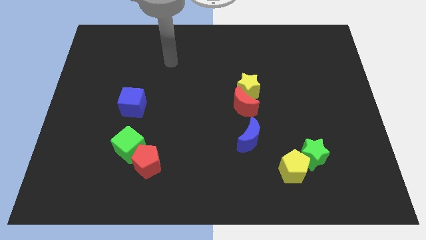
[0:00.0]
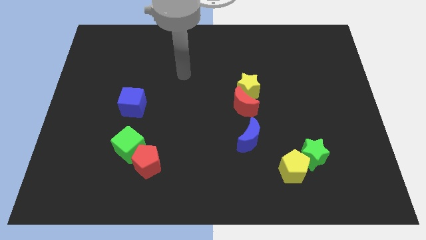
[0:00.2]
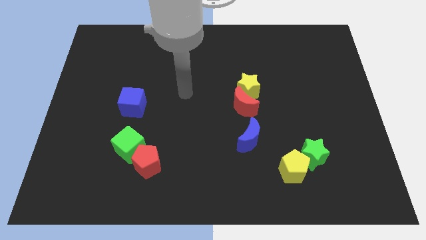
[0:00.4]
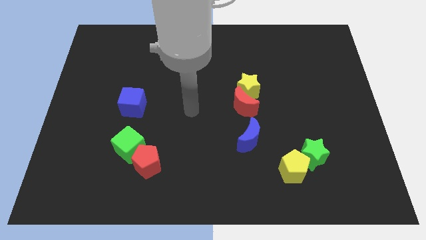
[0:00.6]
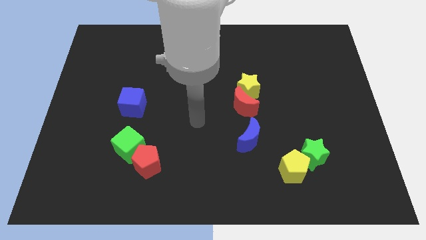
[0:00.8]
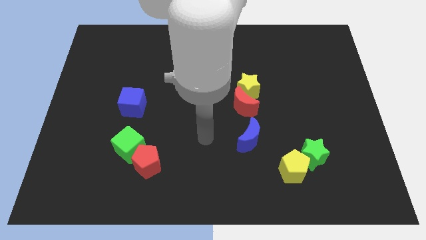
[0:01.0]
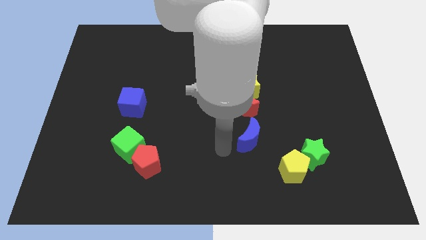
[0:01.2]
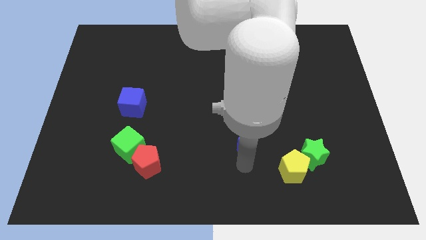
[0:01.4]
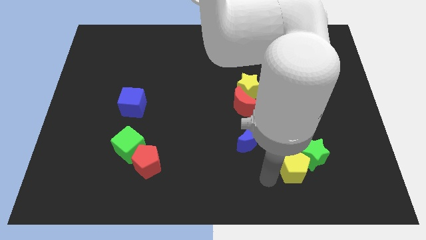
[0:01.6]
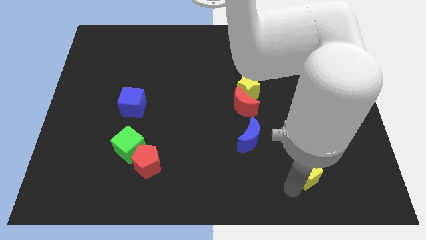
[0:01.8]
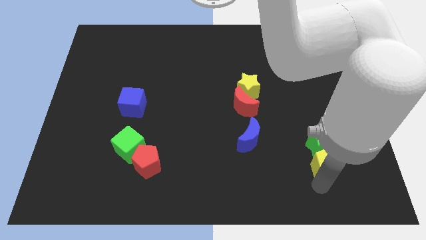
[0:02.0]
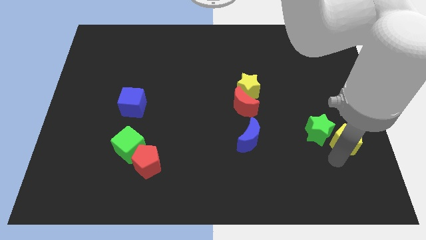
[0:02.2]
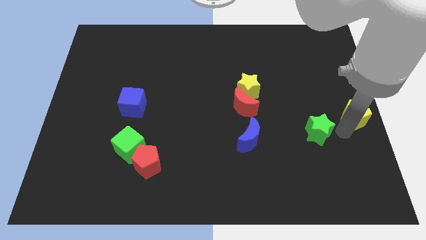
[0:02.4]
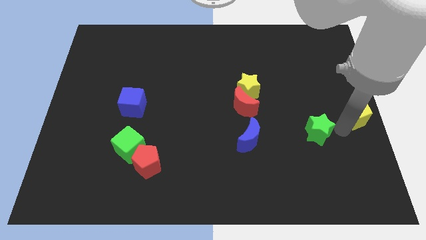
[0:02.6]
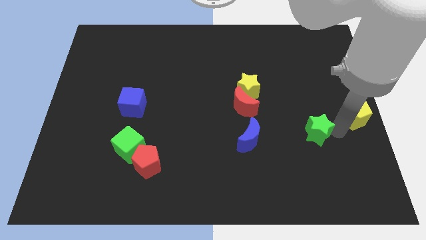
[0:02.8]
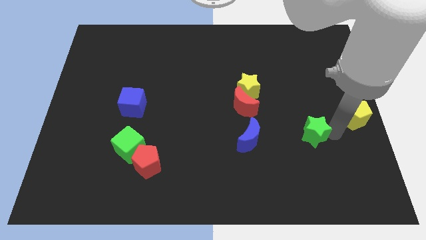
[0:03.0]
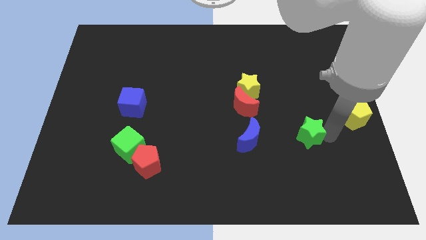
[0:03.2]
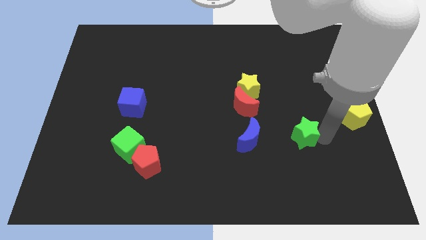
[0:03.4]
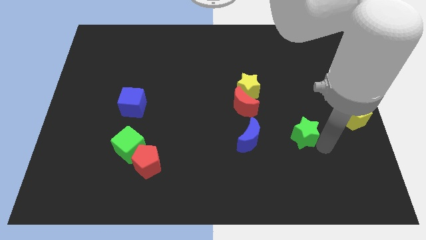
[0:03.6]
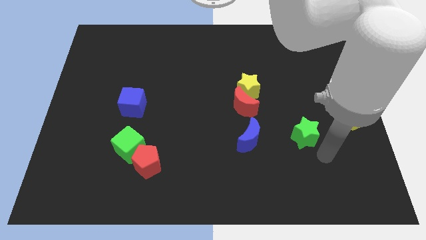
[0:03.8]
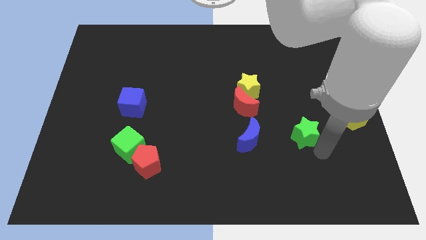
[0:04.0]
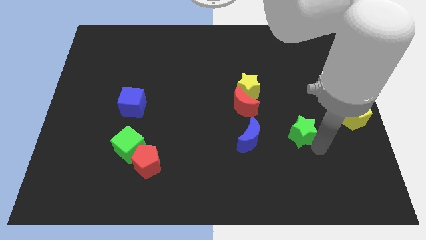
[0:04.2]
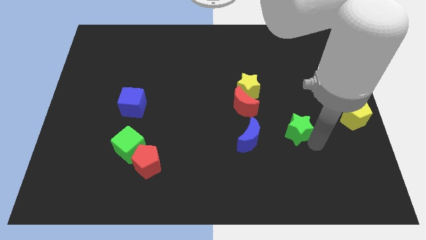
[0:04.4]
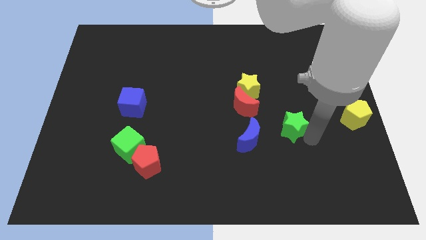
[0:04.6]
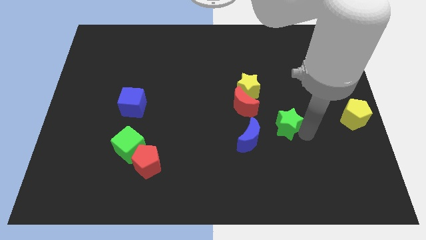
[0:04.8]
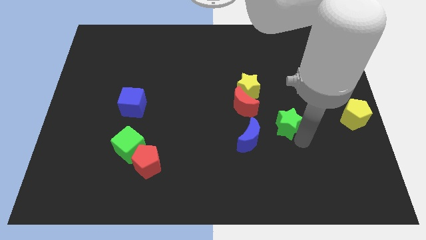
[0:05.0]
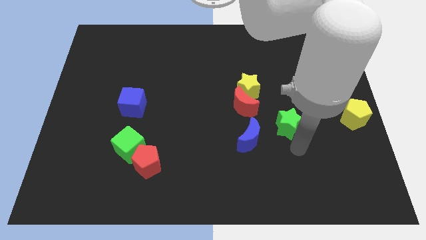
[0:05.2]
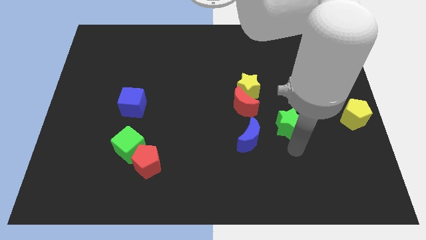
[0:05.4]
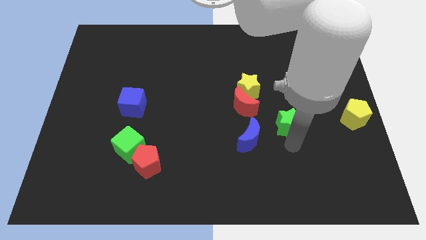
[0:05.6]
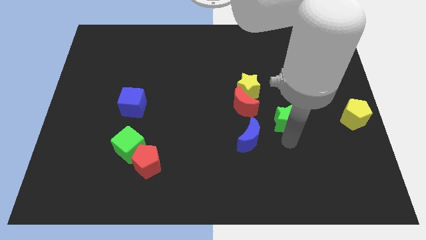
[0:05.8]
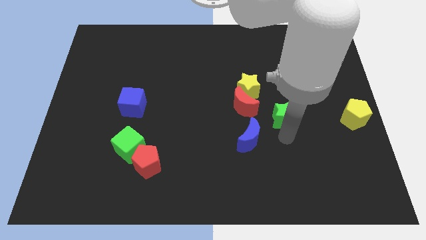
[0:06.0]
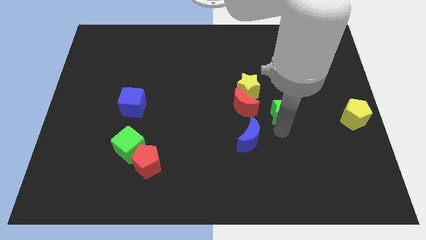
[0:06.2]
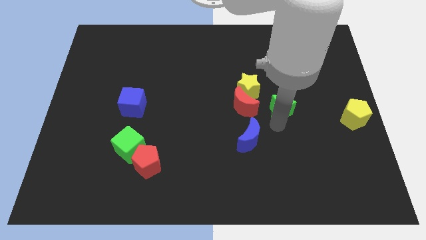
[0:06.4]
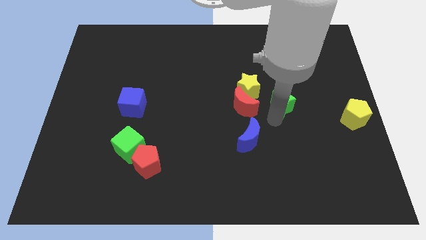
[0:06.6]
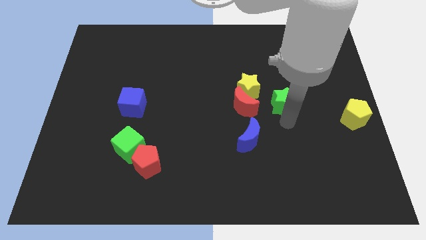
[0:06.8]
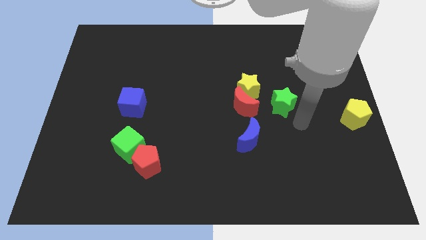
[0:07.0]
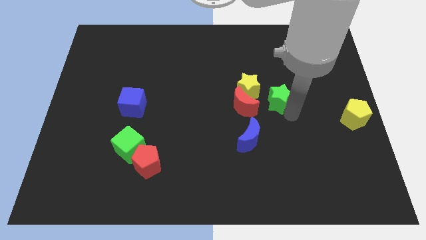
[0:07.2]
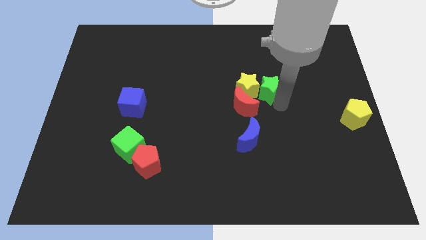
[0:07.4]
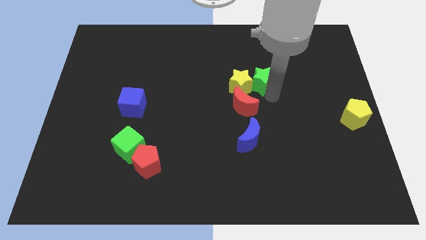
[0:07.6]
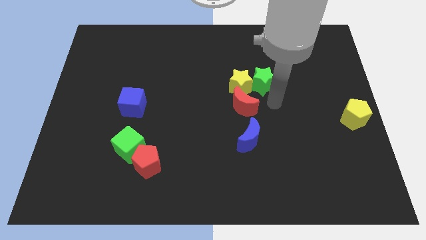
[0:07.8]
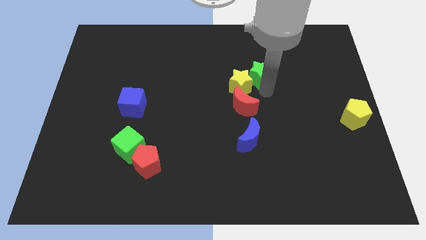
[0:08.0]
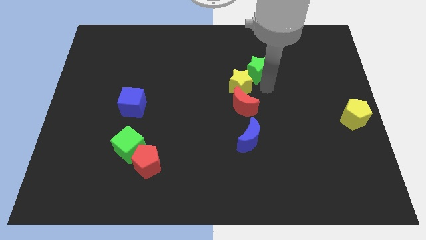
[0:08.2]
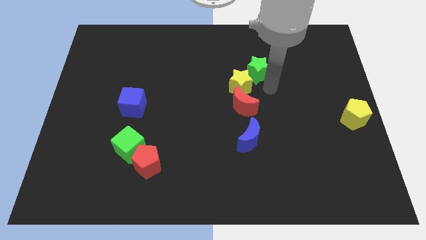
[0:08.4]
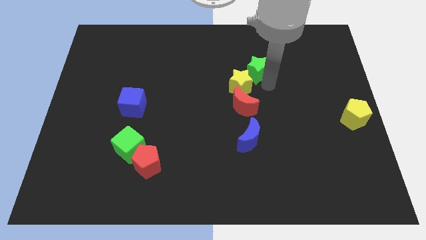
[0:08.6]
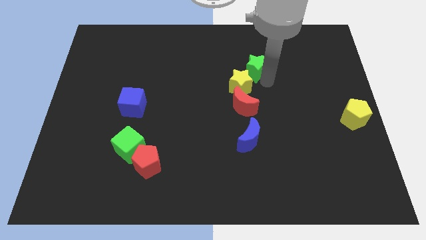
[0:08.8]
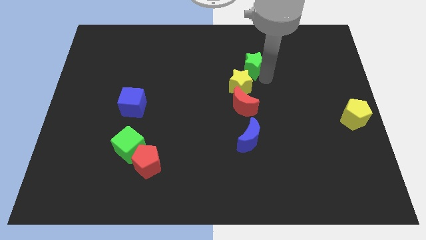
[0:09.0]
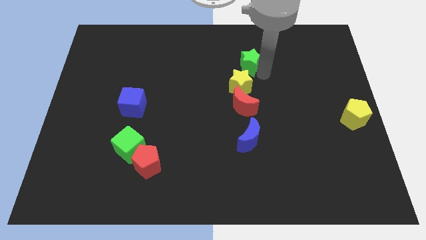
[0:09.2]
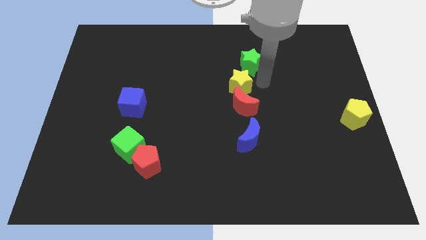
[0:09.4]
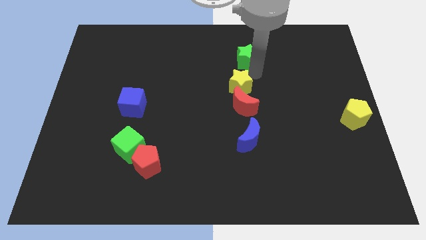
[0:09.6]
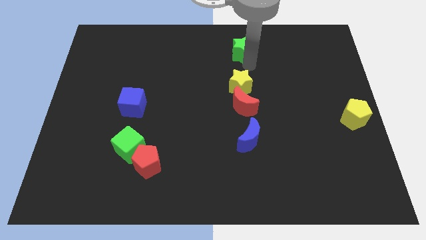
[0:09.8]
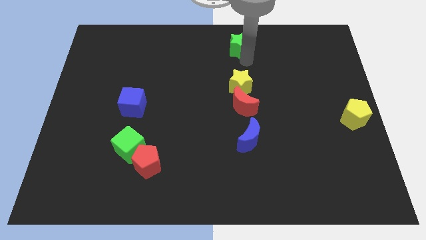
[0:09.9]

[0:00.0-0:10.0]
put the green star to the top

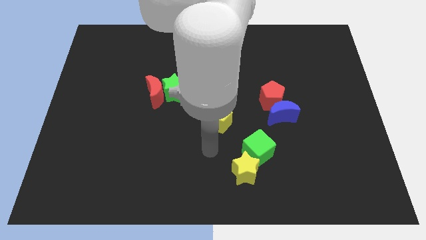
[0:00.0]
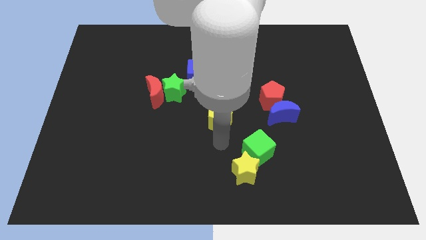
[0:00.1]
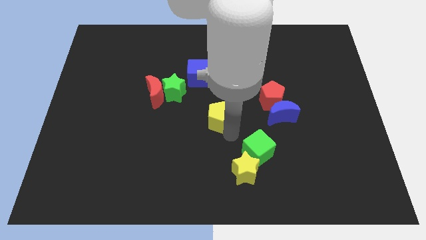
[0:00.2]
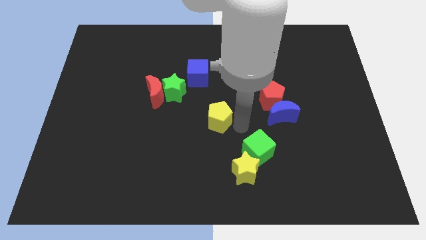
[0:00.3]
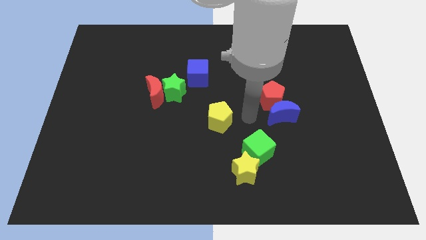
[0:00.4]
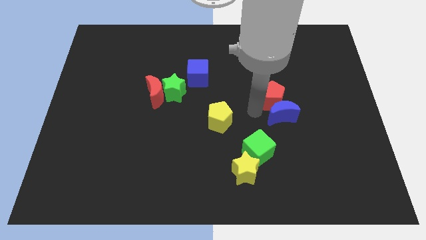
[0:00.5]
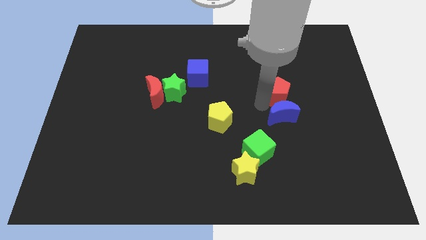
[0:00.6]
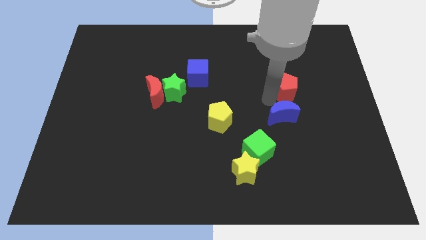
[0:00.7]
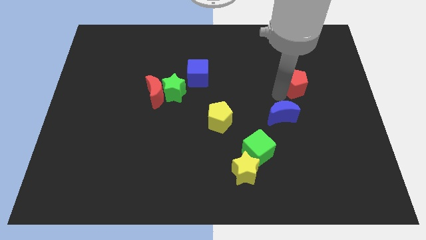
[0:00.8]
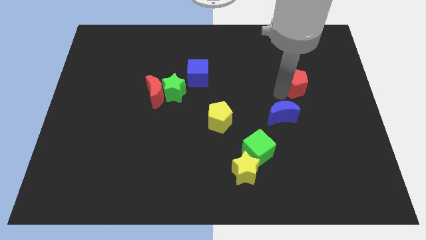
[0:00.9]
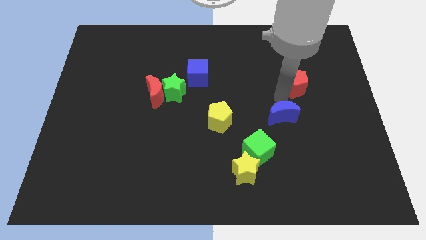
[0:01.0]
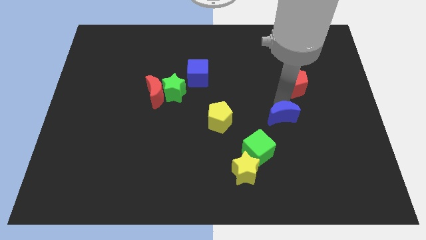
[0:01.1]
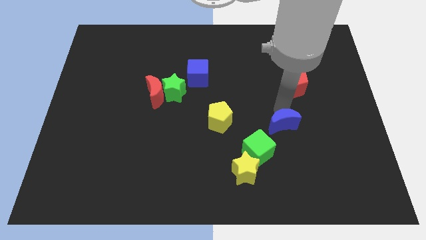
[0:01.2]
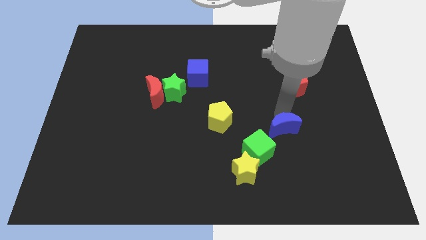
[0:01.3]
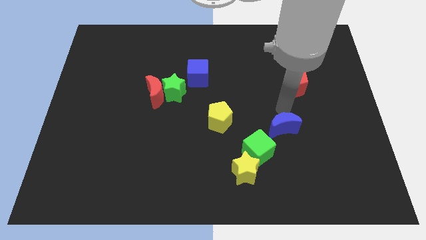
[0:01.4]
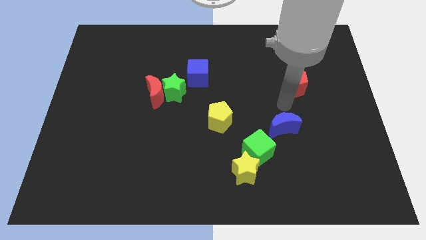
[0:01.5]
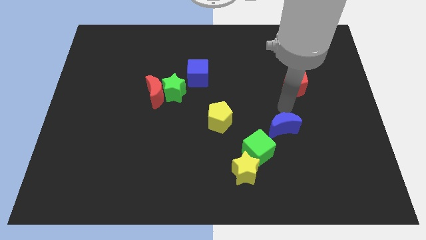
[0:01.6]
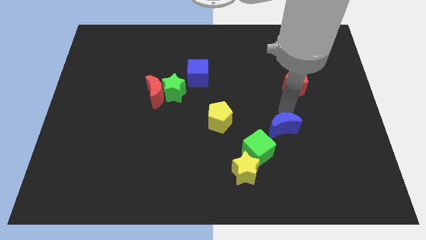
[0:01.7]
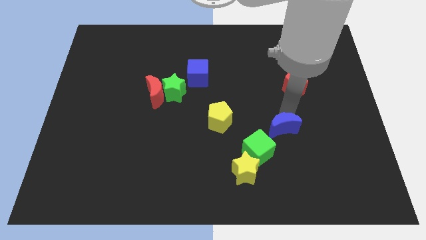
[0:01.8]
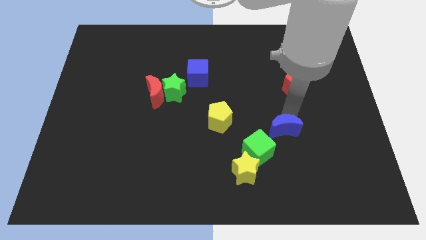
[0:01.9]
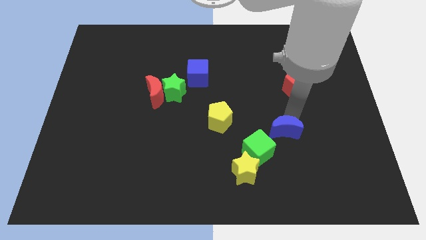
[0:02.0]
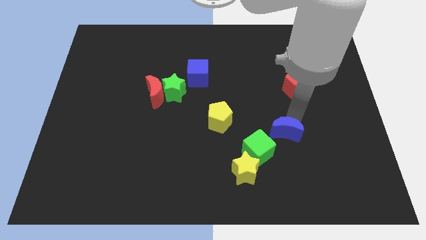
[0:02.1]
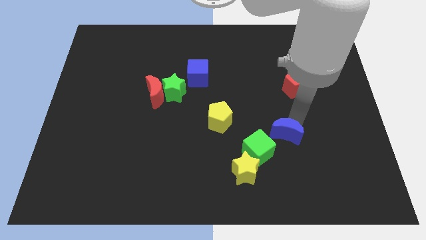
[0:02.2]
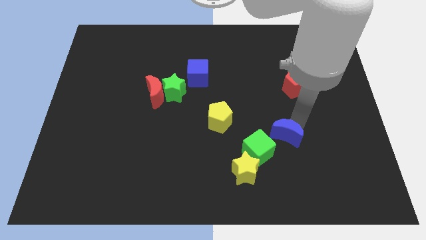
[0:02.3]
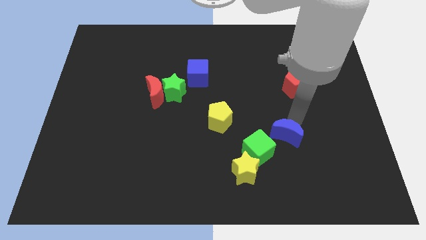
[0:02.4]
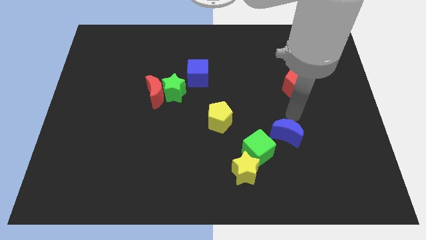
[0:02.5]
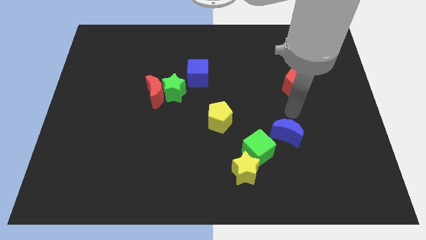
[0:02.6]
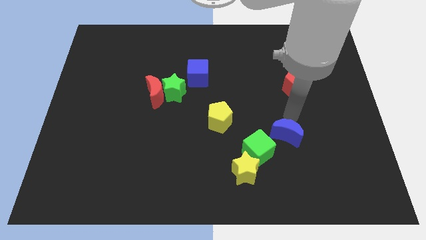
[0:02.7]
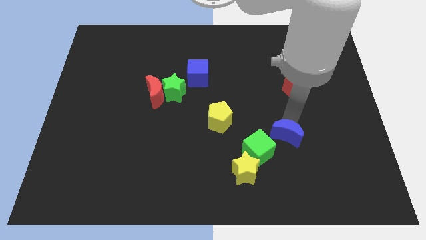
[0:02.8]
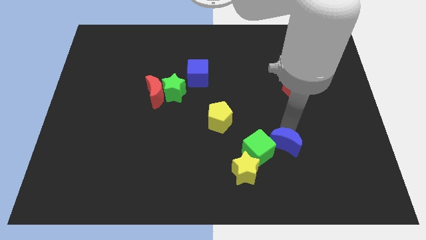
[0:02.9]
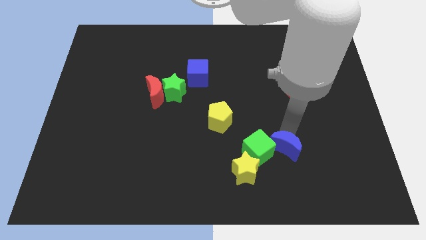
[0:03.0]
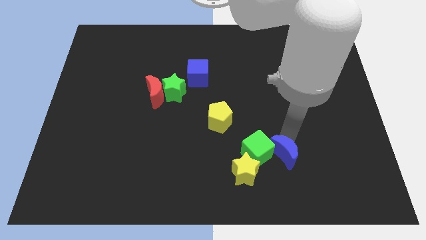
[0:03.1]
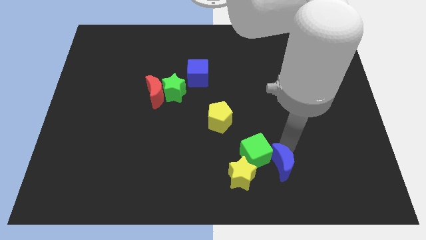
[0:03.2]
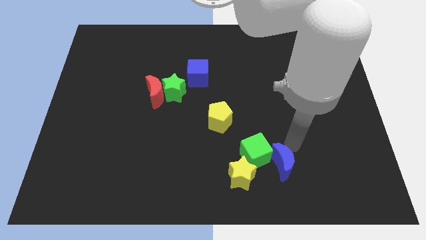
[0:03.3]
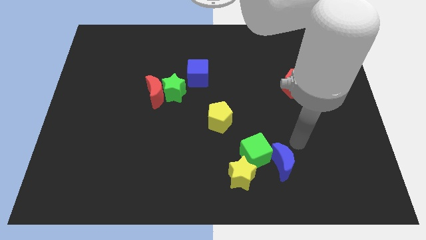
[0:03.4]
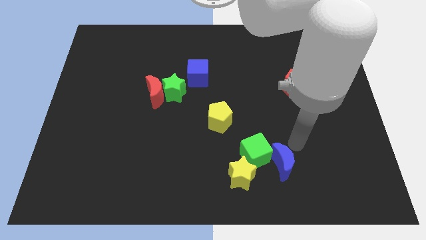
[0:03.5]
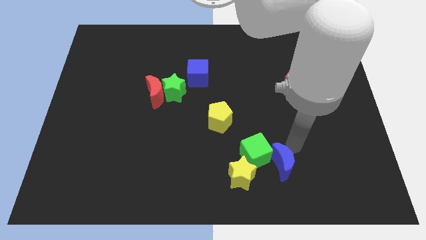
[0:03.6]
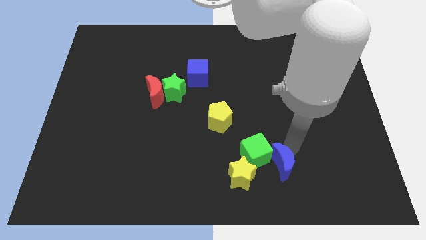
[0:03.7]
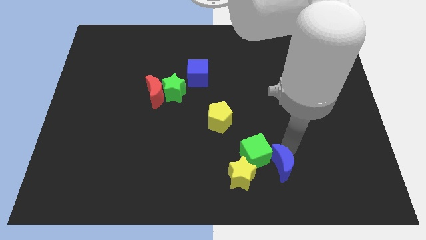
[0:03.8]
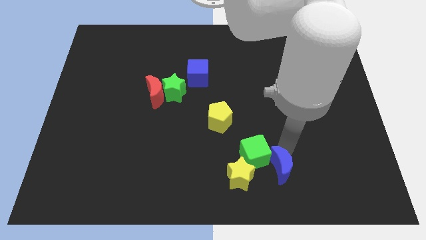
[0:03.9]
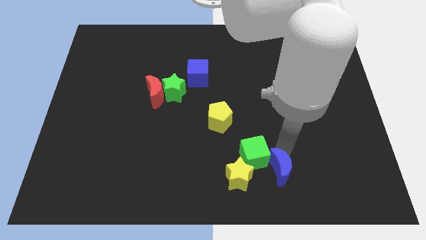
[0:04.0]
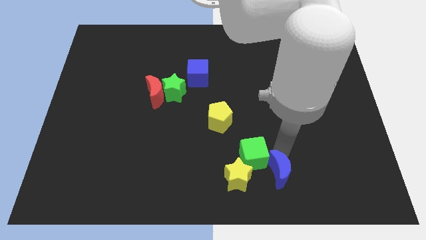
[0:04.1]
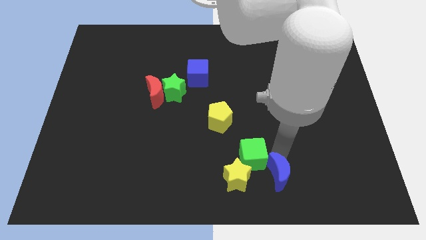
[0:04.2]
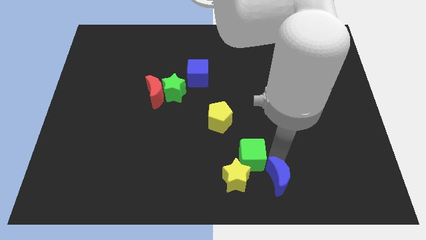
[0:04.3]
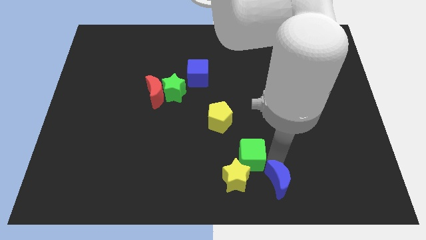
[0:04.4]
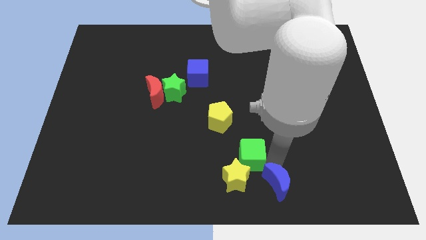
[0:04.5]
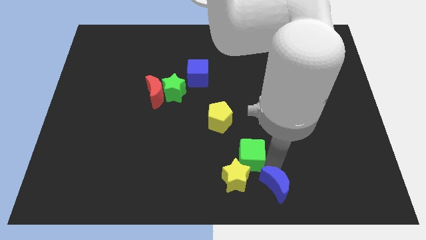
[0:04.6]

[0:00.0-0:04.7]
put the blue moon to the bottom side
